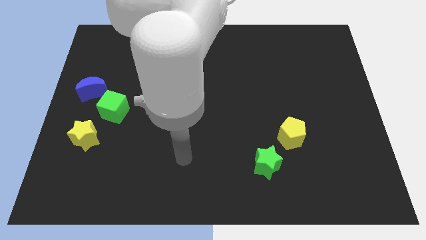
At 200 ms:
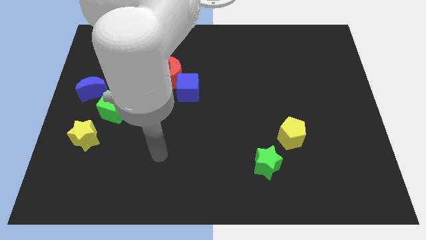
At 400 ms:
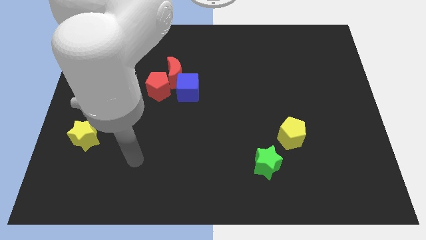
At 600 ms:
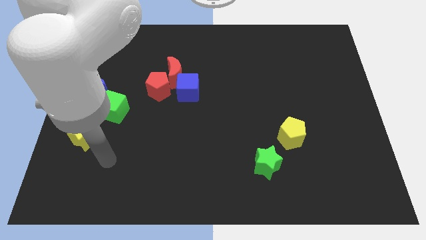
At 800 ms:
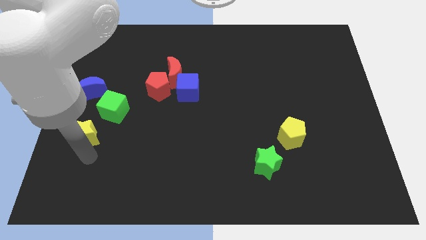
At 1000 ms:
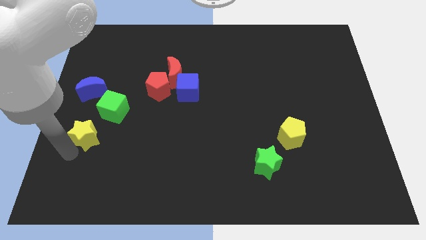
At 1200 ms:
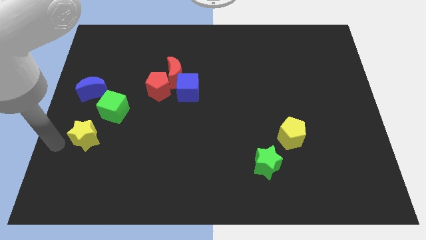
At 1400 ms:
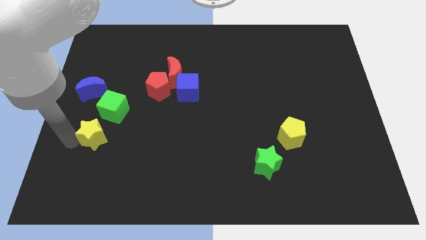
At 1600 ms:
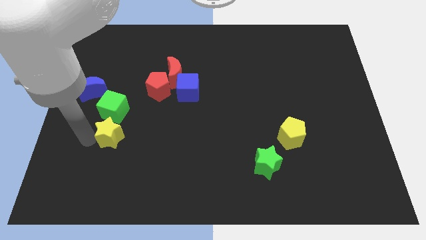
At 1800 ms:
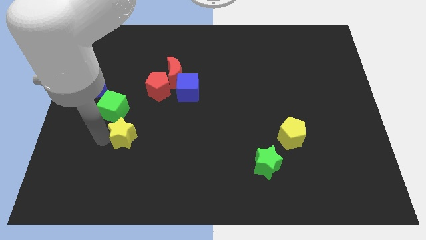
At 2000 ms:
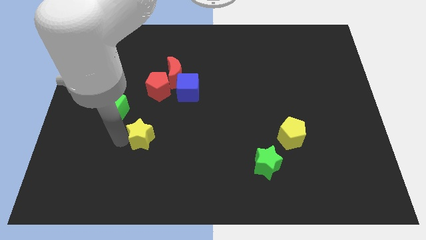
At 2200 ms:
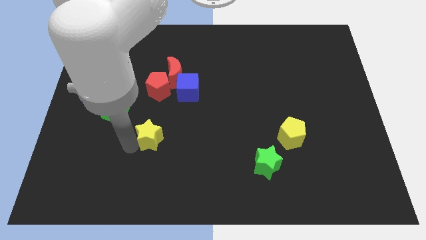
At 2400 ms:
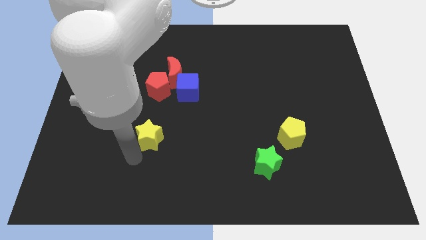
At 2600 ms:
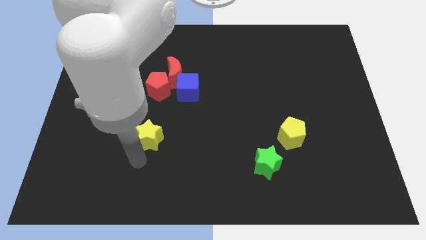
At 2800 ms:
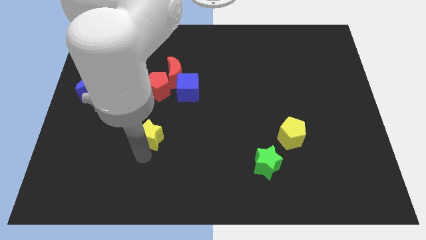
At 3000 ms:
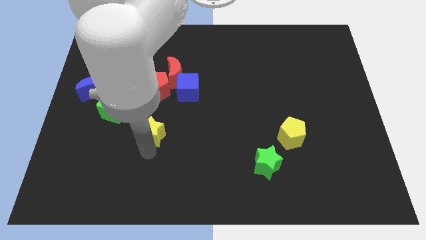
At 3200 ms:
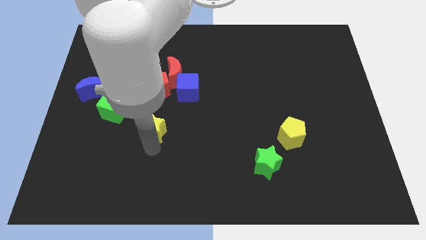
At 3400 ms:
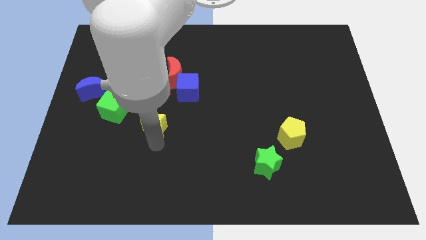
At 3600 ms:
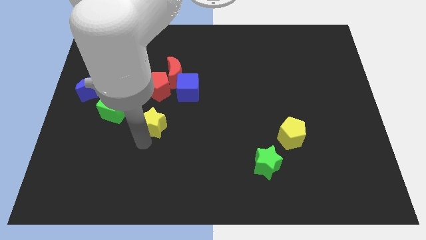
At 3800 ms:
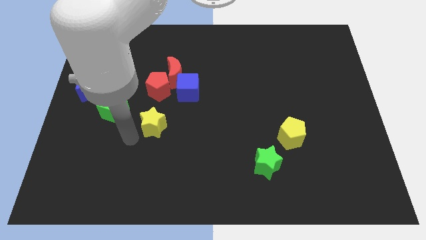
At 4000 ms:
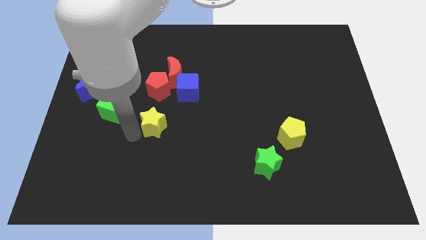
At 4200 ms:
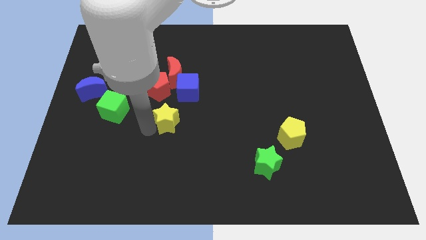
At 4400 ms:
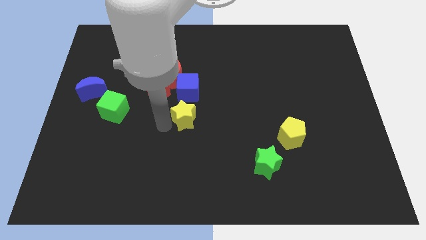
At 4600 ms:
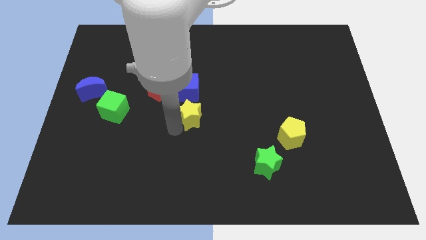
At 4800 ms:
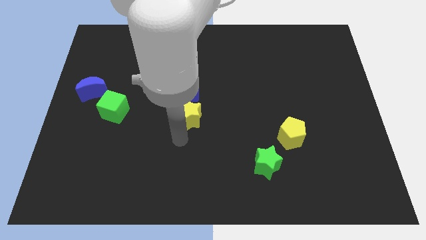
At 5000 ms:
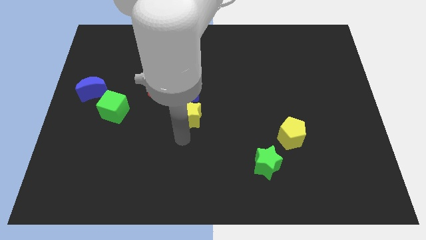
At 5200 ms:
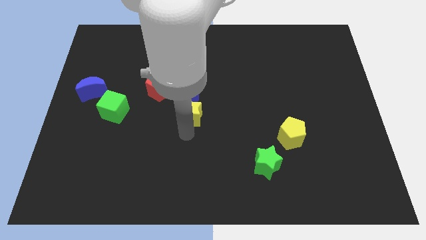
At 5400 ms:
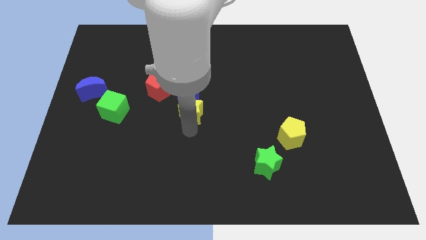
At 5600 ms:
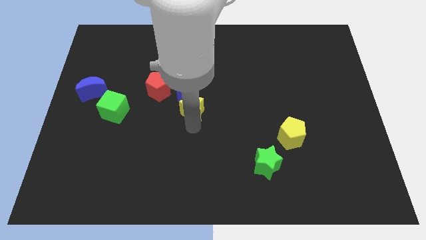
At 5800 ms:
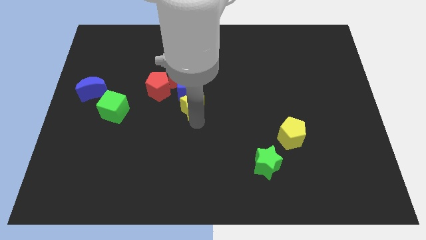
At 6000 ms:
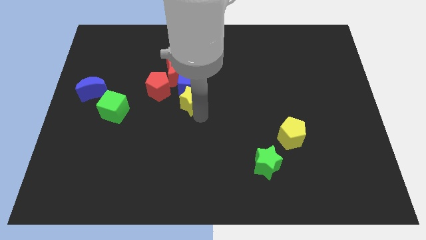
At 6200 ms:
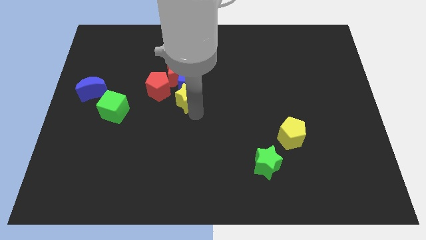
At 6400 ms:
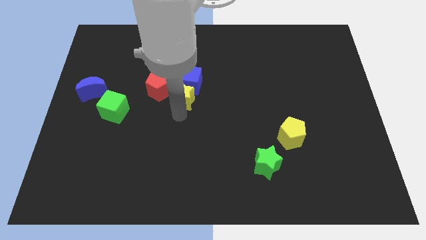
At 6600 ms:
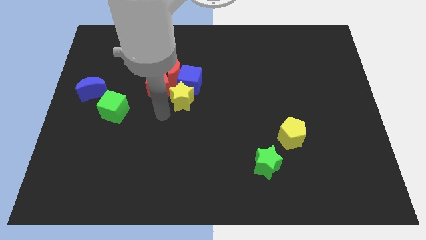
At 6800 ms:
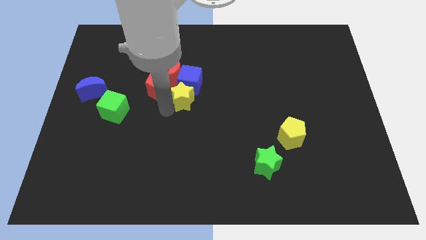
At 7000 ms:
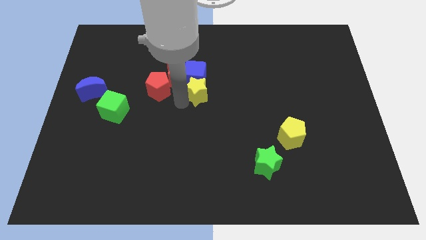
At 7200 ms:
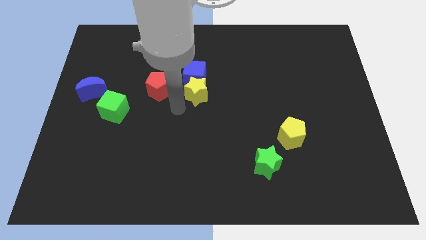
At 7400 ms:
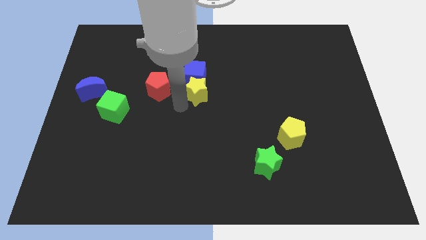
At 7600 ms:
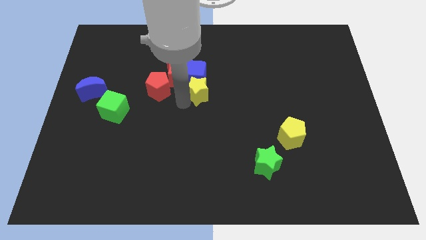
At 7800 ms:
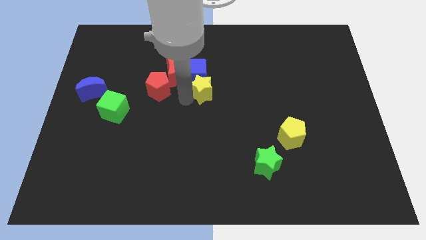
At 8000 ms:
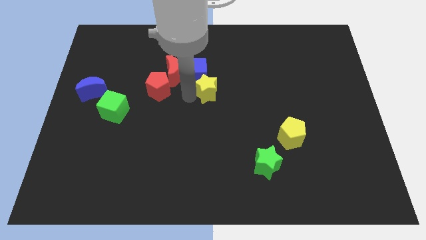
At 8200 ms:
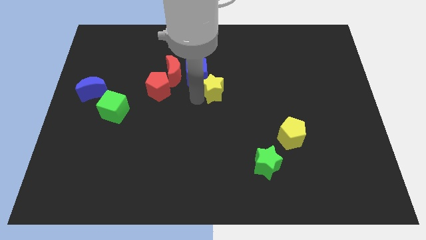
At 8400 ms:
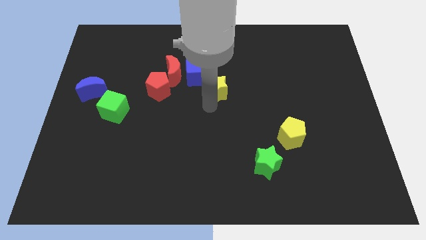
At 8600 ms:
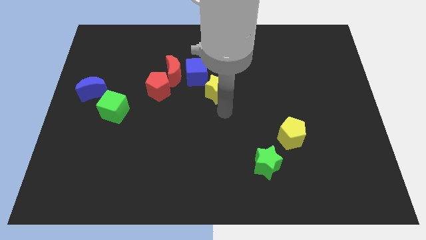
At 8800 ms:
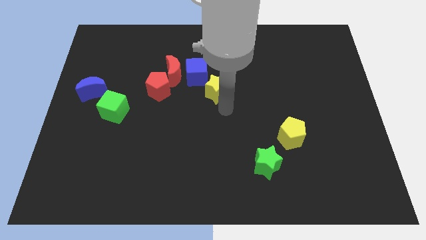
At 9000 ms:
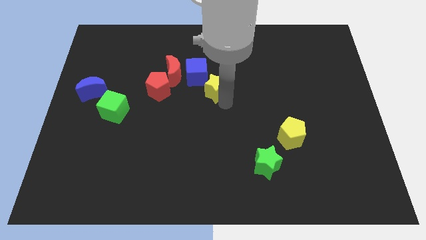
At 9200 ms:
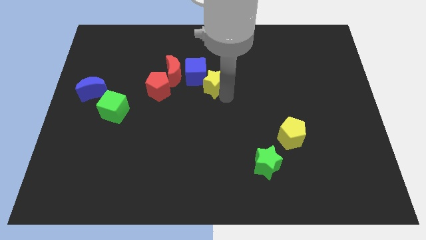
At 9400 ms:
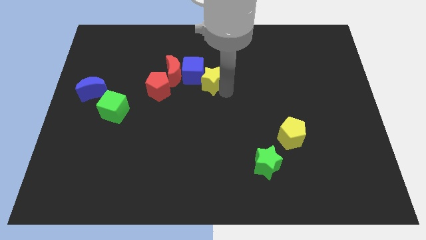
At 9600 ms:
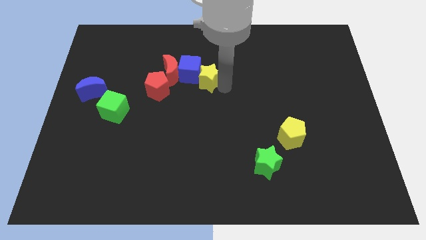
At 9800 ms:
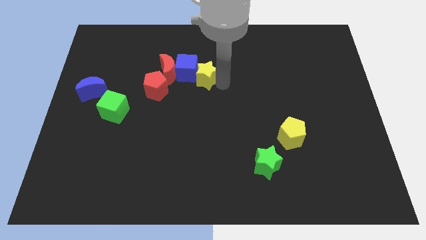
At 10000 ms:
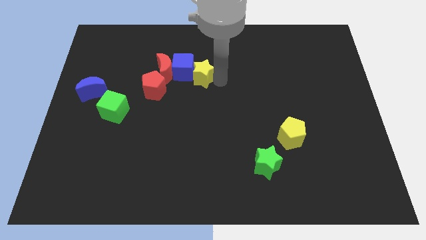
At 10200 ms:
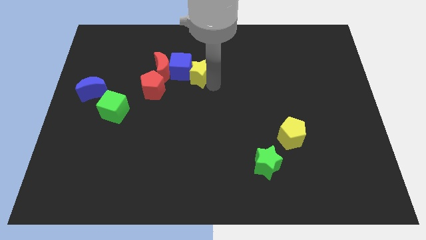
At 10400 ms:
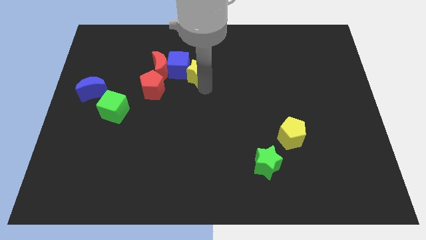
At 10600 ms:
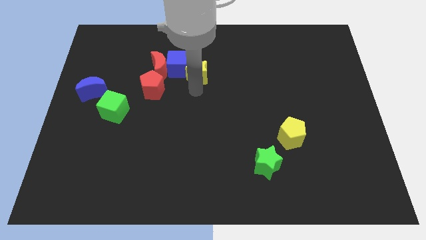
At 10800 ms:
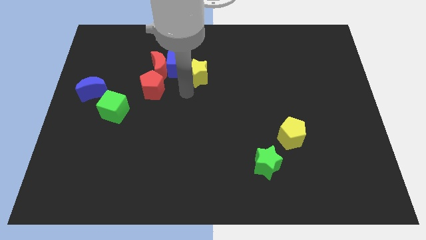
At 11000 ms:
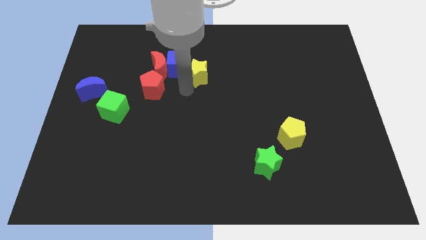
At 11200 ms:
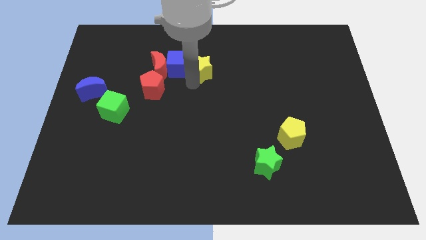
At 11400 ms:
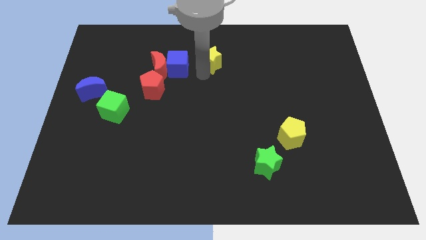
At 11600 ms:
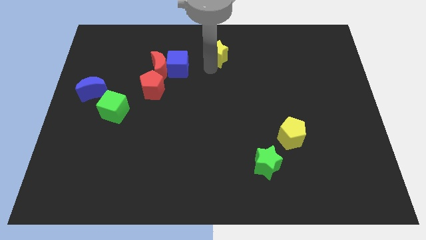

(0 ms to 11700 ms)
put the yellow star to the towards your base

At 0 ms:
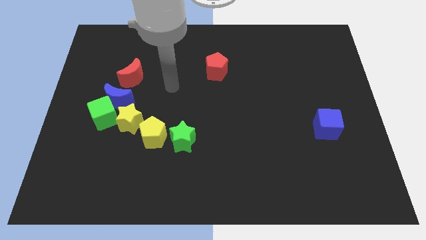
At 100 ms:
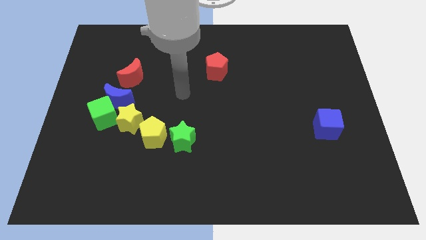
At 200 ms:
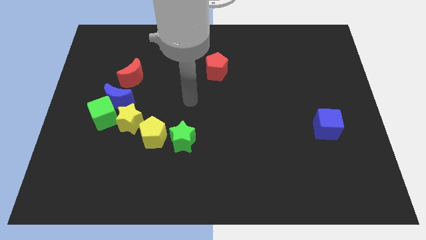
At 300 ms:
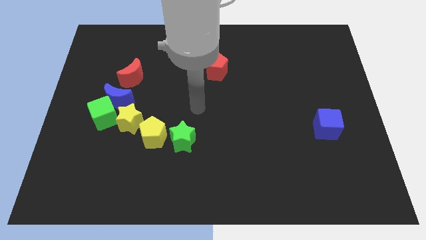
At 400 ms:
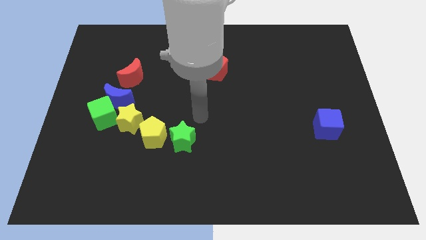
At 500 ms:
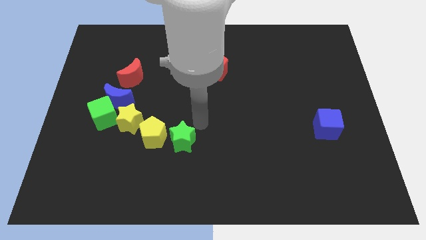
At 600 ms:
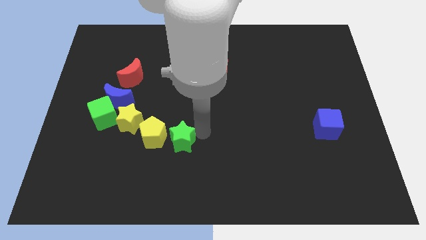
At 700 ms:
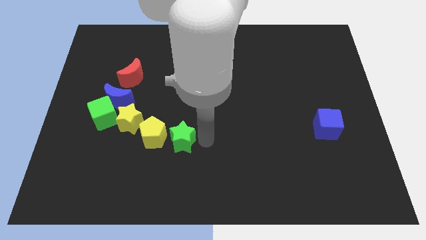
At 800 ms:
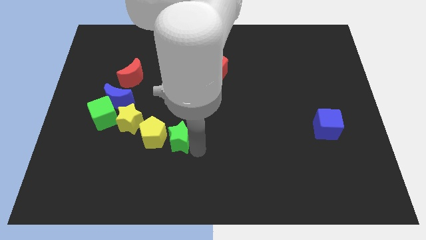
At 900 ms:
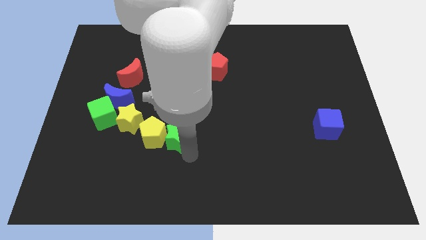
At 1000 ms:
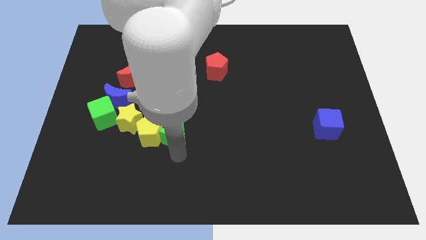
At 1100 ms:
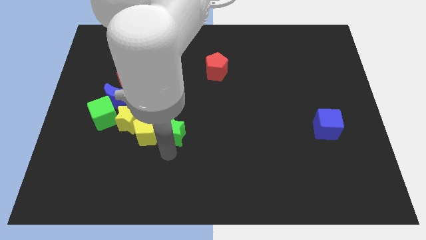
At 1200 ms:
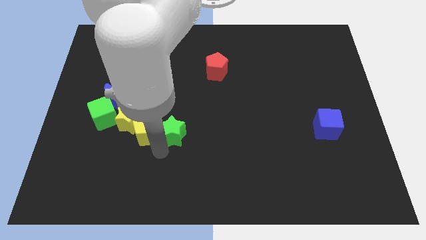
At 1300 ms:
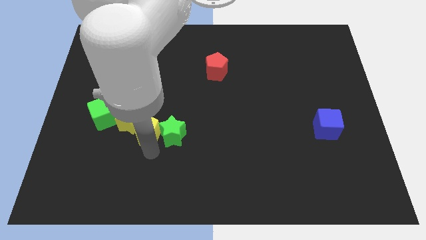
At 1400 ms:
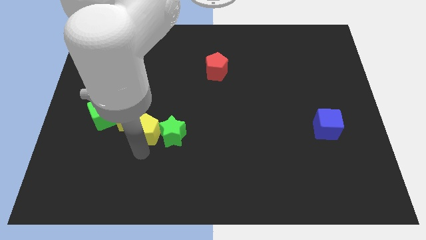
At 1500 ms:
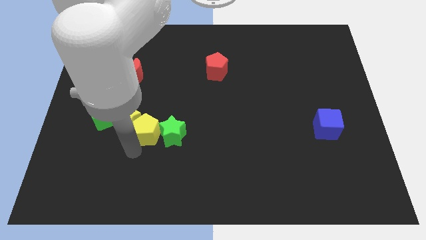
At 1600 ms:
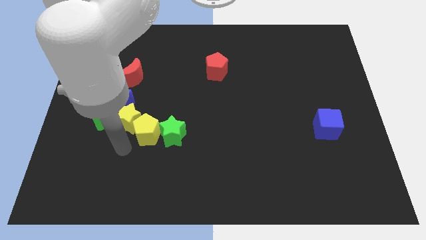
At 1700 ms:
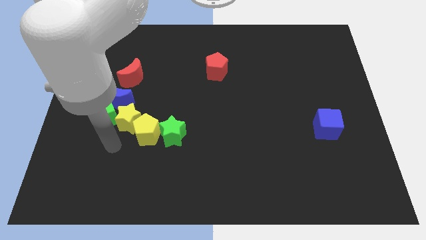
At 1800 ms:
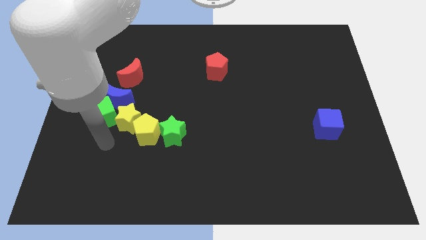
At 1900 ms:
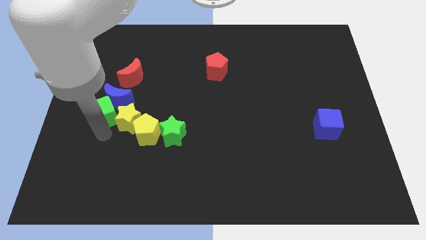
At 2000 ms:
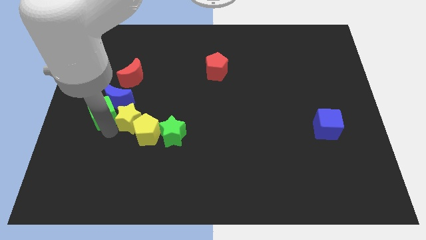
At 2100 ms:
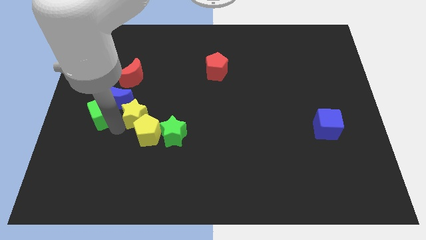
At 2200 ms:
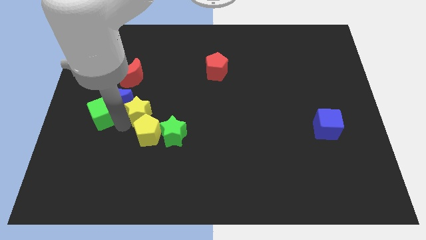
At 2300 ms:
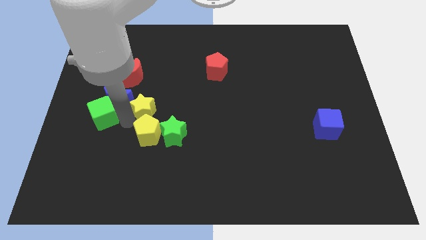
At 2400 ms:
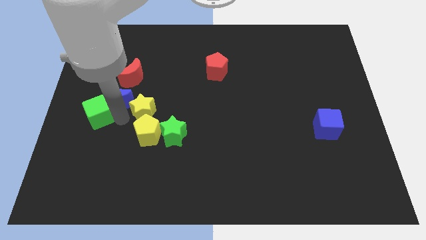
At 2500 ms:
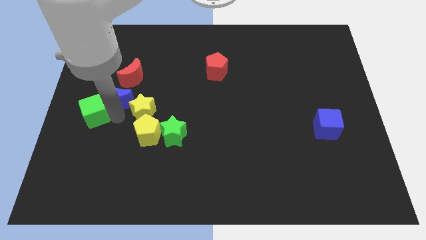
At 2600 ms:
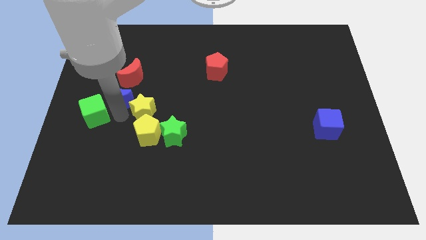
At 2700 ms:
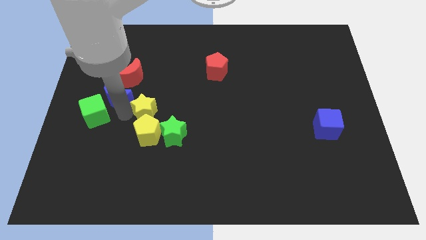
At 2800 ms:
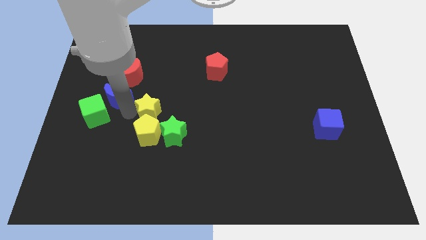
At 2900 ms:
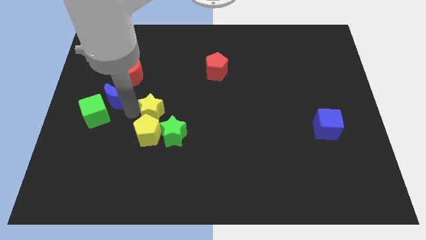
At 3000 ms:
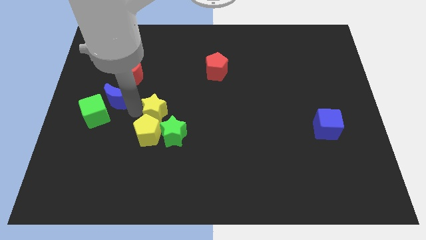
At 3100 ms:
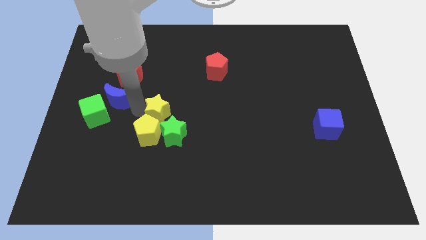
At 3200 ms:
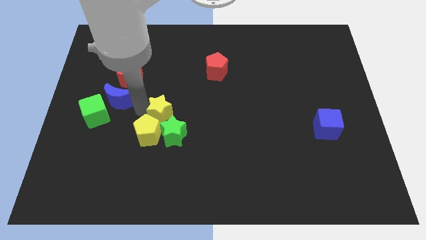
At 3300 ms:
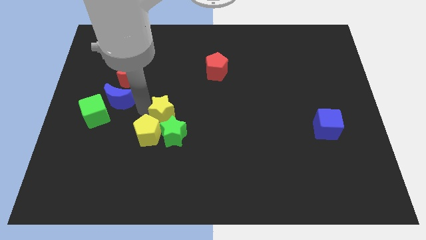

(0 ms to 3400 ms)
push the yellow star to the center
